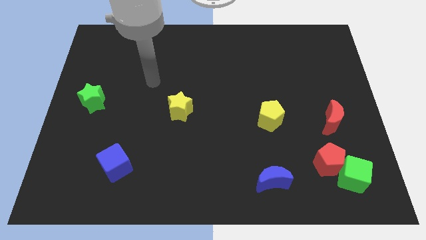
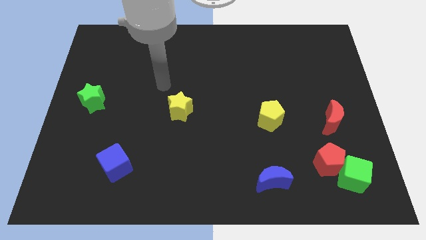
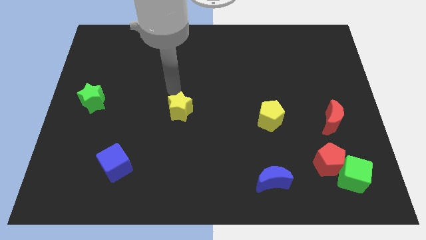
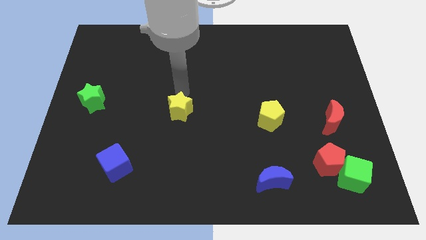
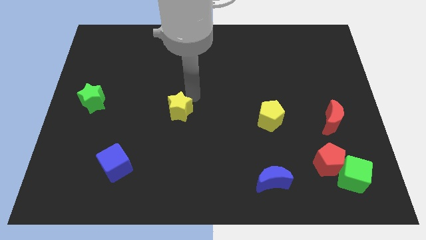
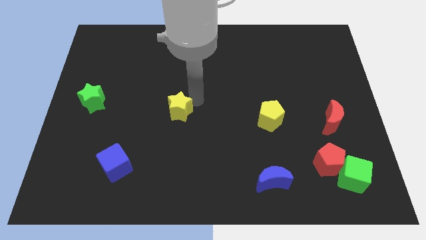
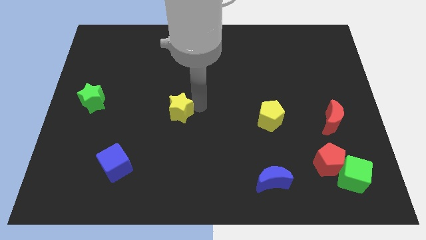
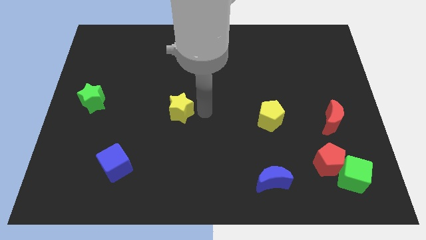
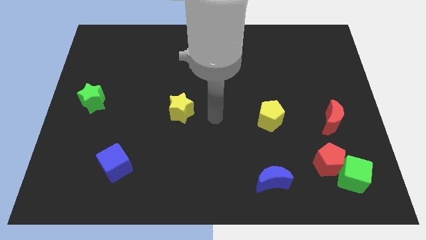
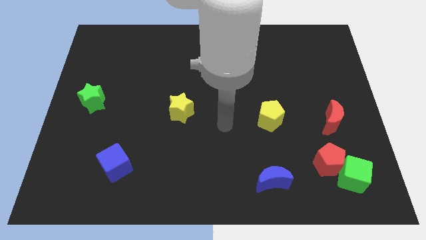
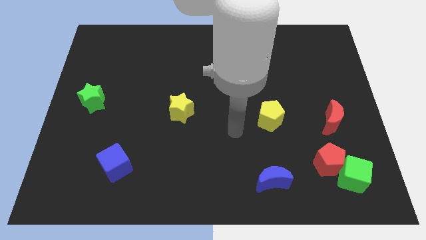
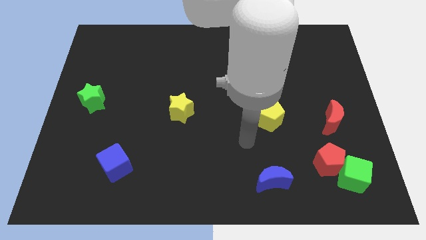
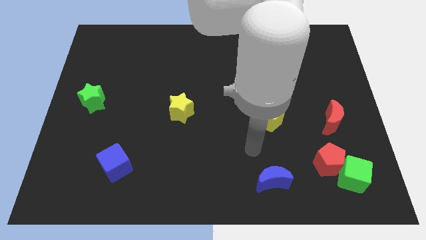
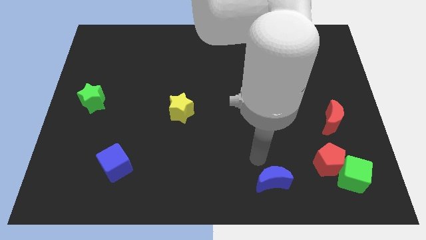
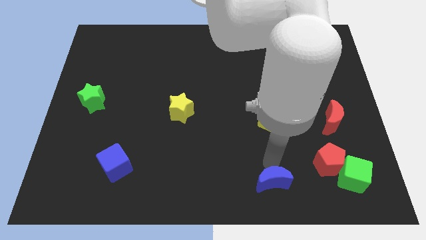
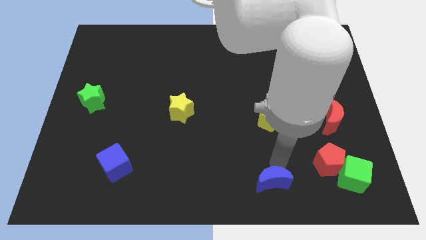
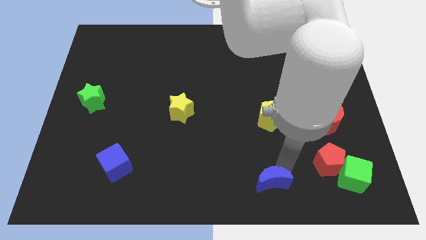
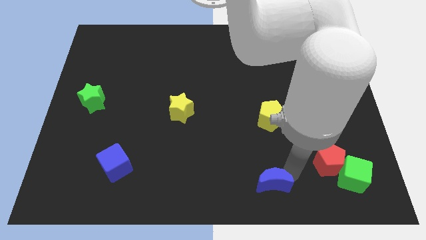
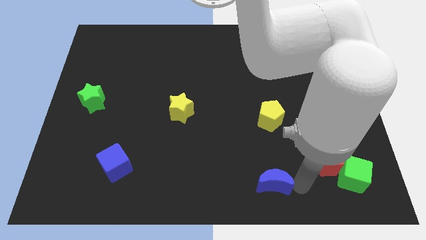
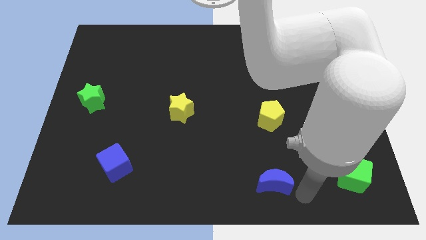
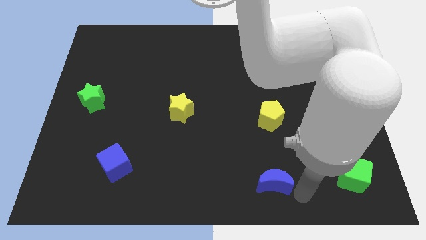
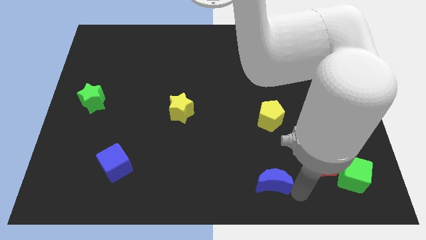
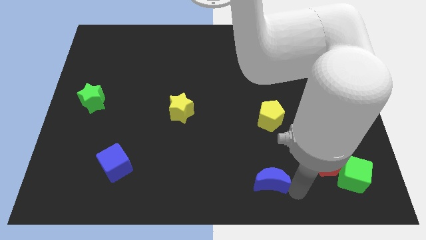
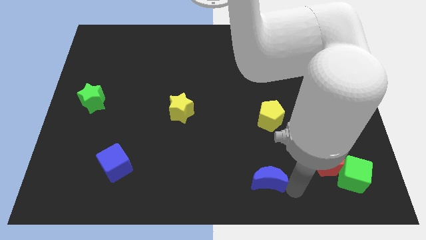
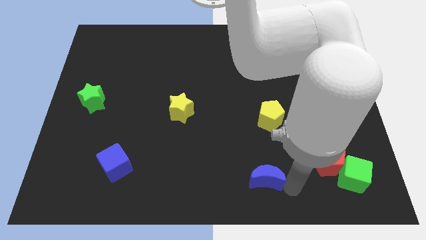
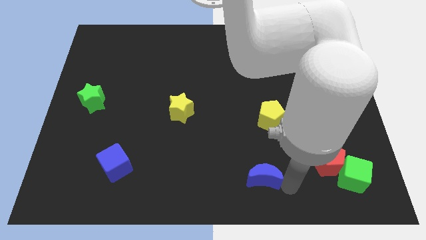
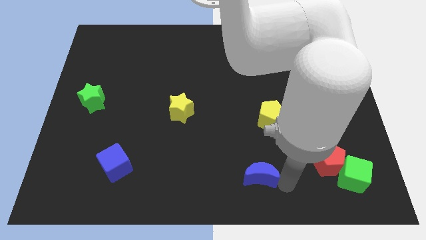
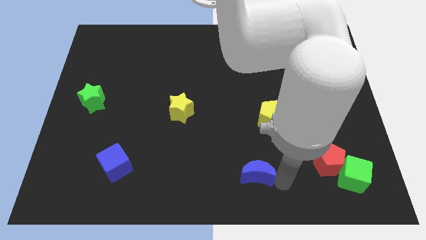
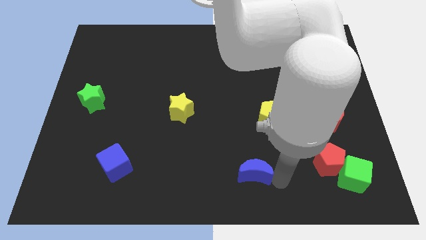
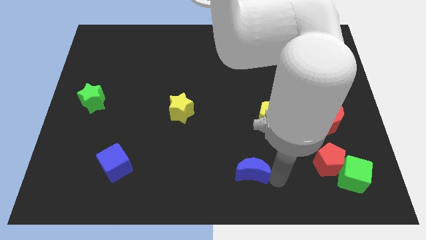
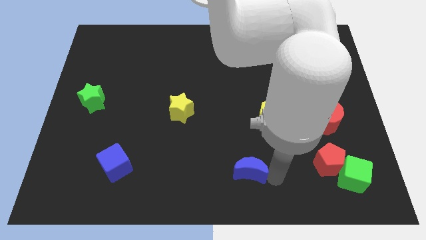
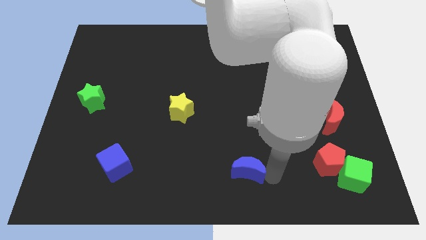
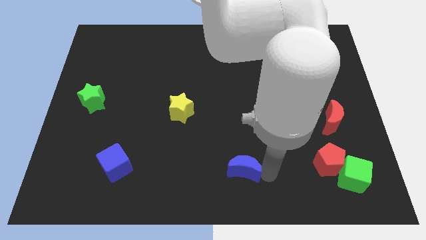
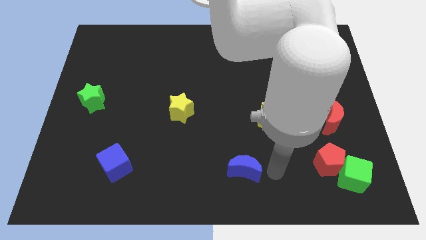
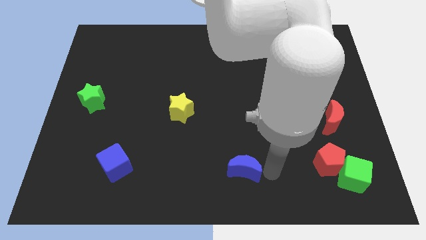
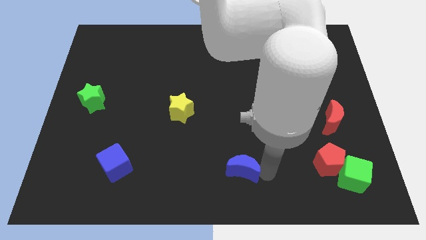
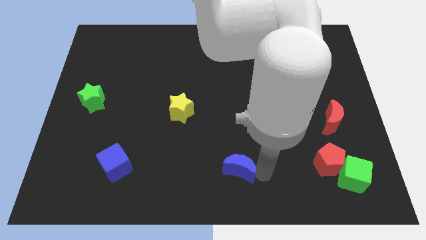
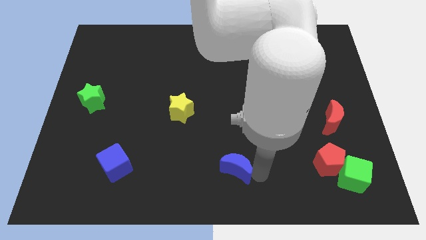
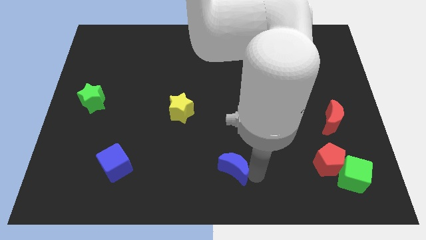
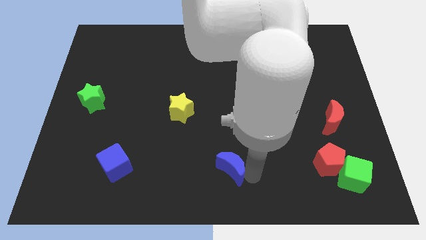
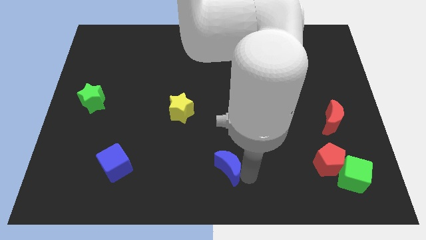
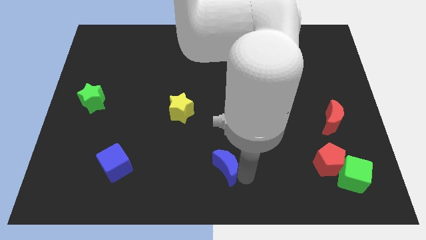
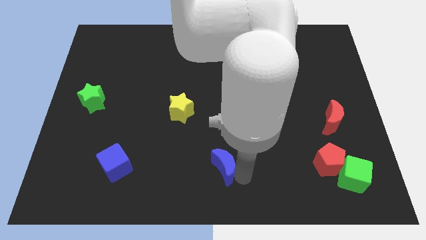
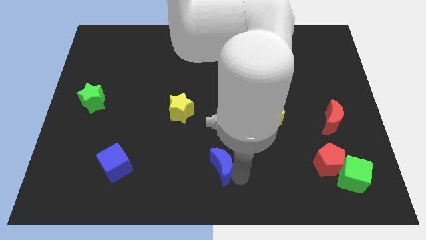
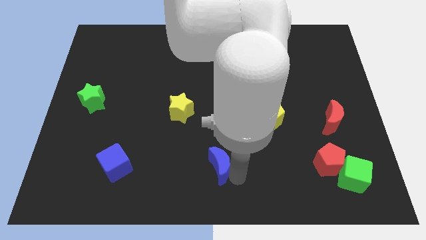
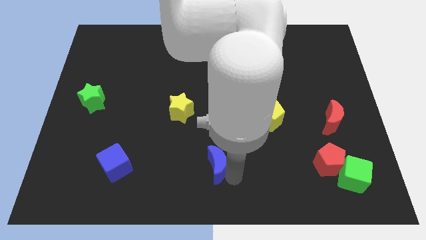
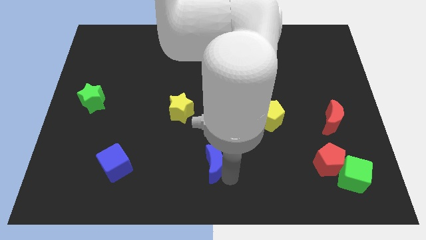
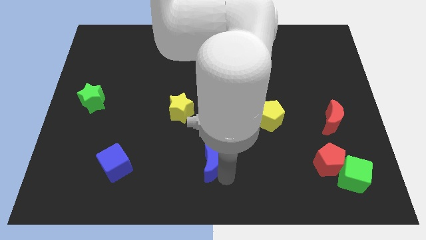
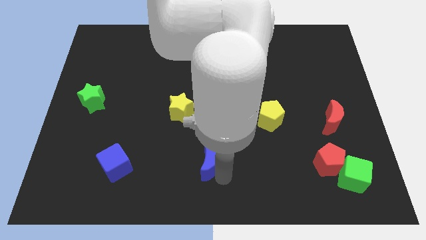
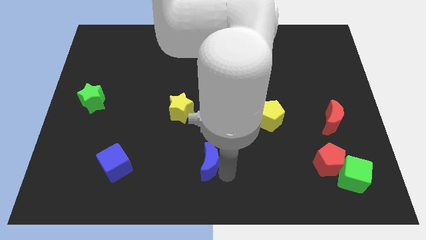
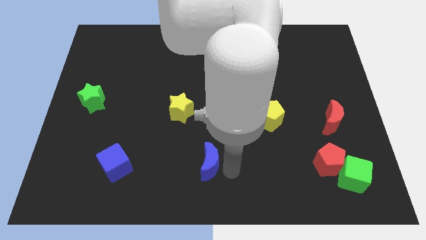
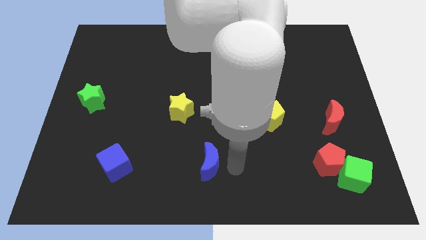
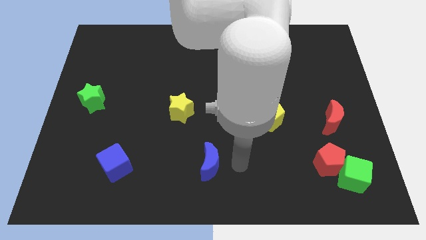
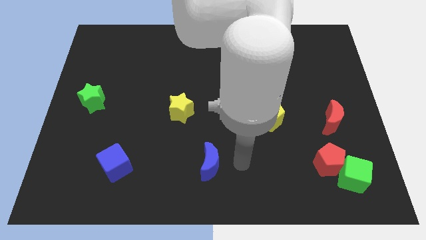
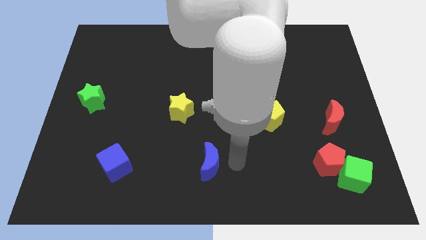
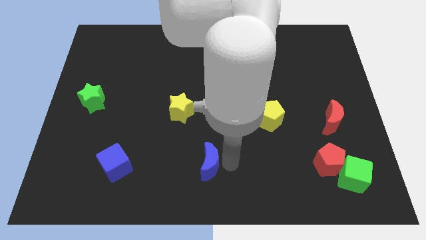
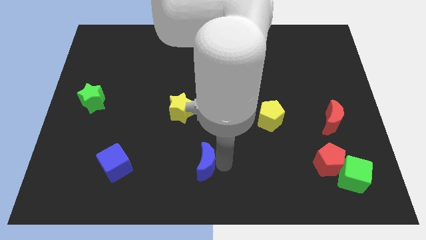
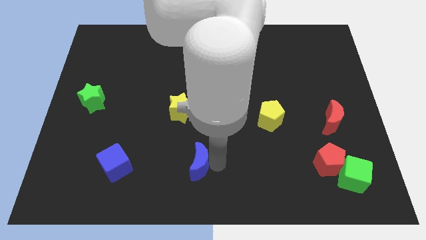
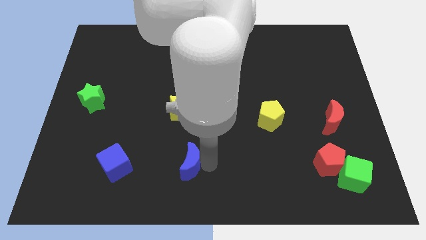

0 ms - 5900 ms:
put the blue moon right of the blue cube

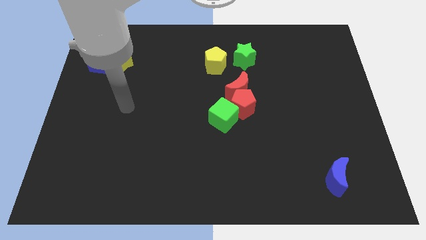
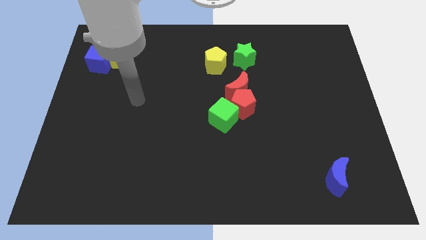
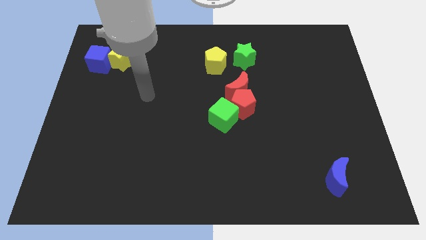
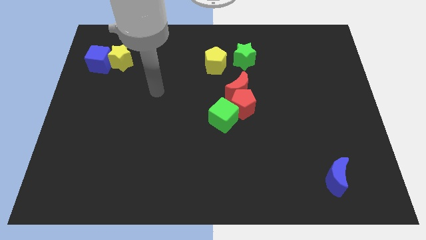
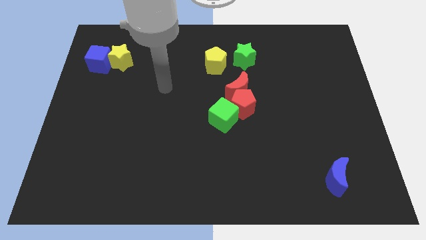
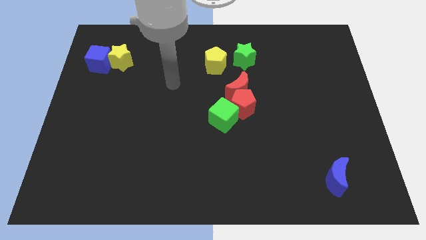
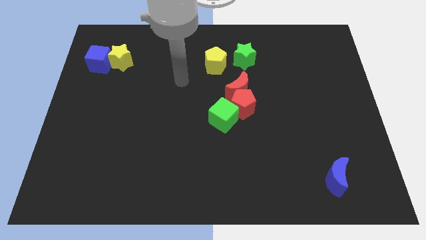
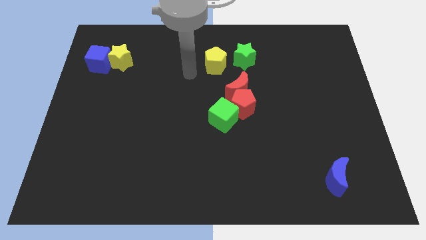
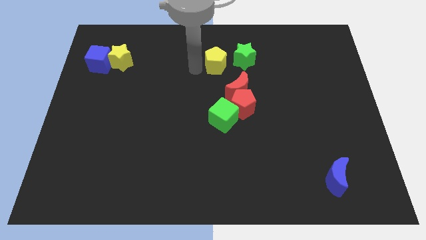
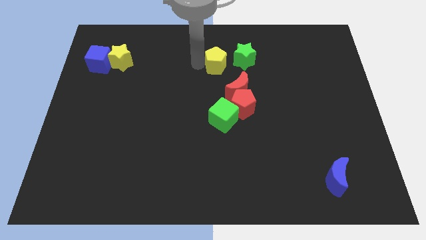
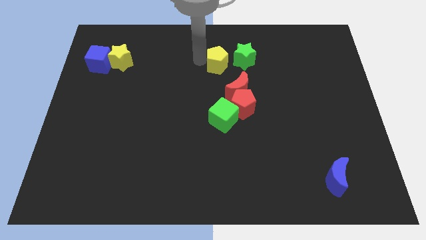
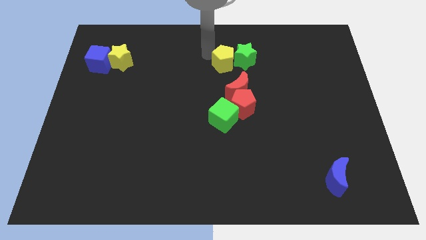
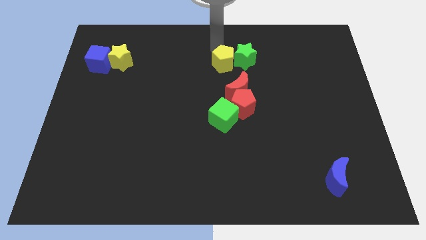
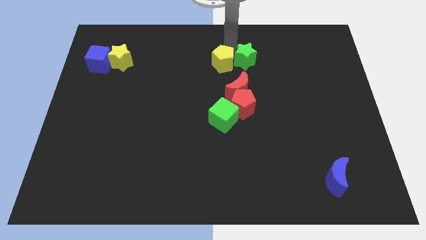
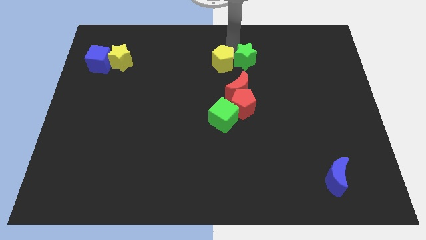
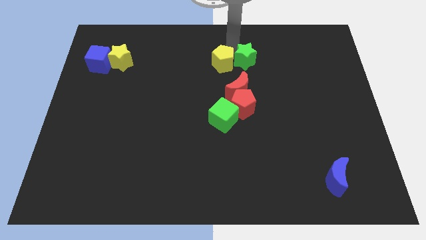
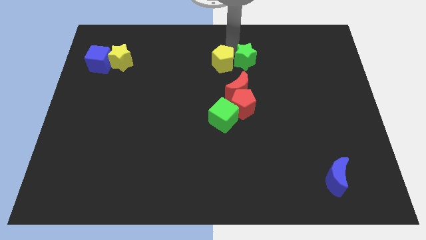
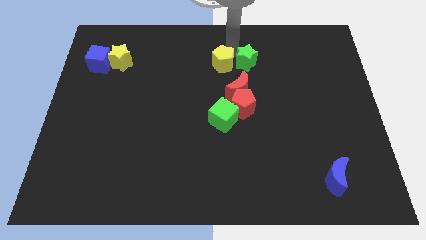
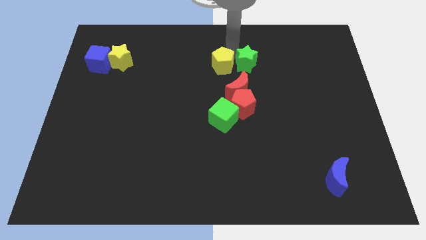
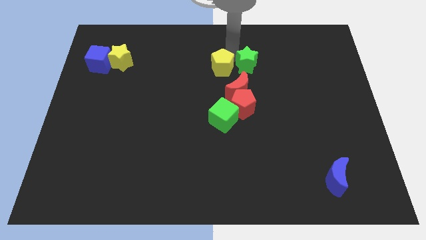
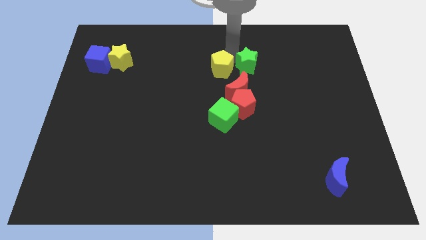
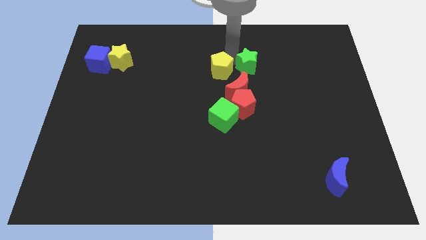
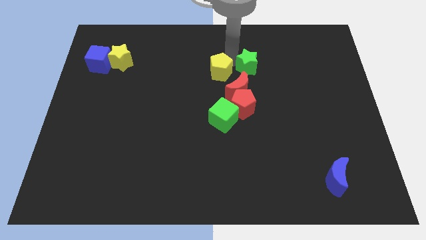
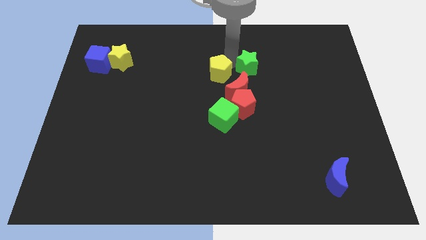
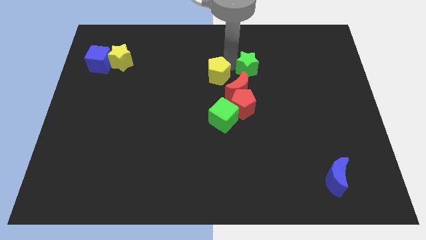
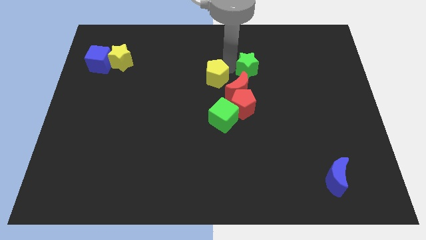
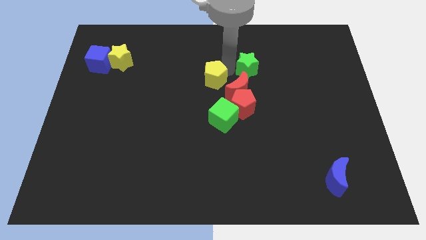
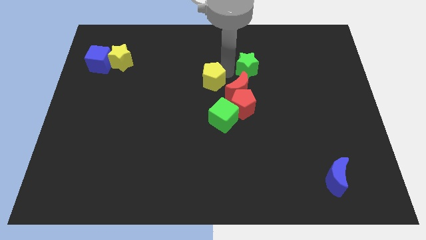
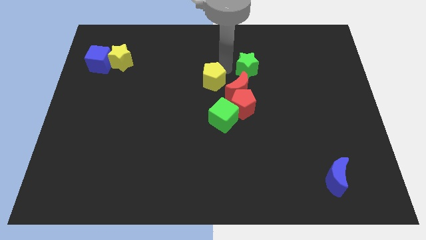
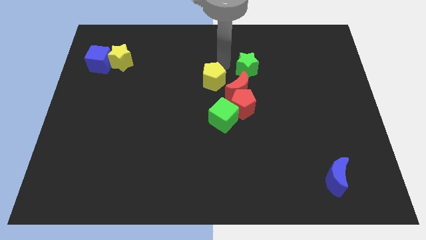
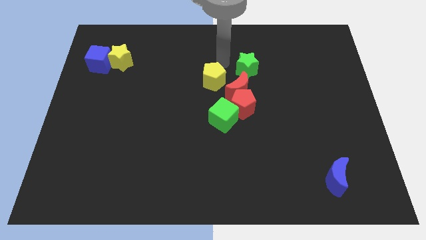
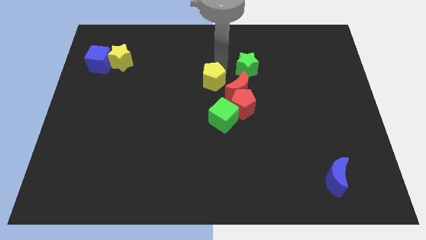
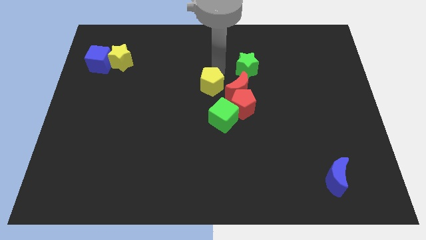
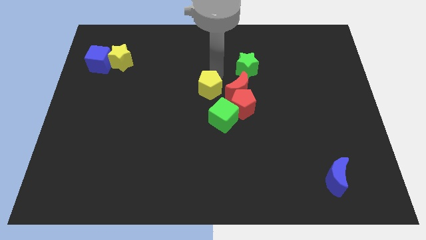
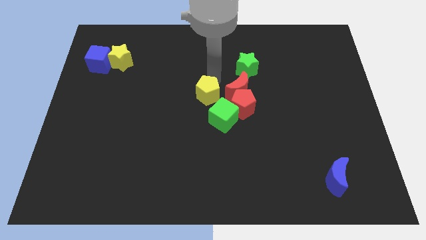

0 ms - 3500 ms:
put the yellow pentagon to the left of the red pentagon
